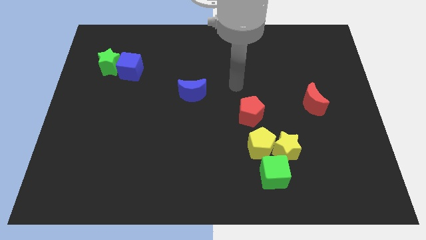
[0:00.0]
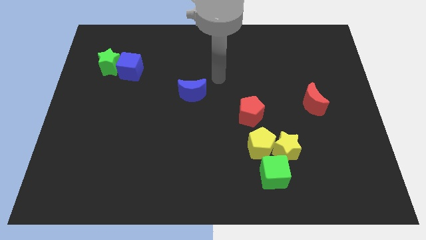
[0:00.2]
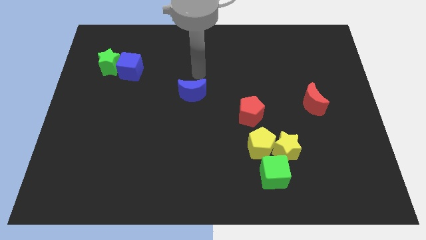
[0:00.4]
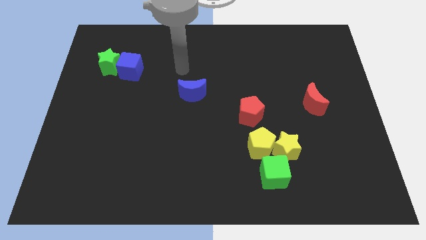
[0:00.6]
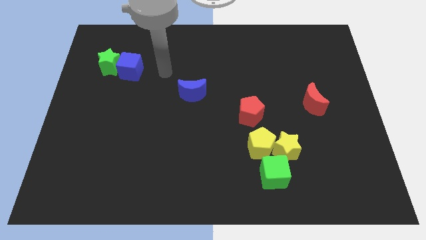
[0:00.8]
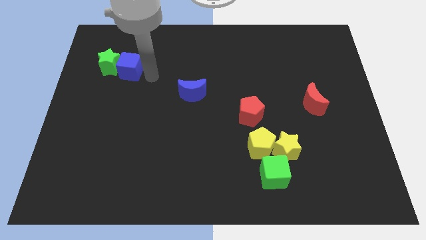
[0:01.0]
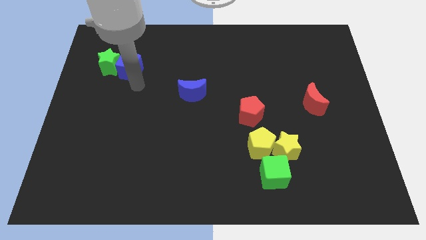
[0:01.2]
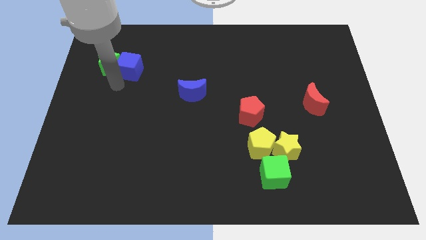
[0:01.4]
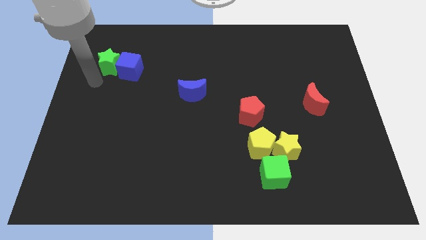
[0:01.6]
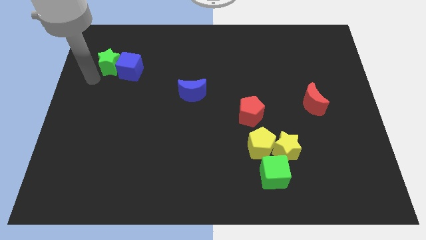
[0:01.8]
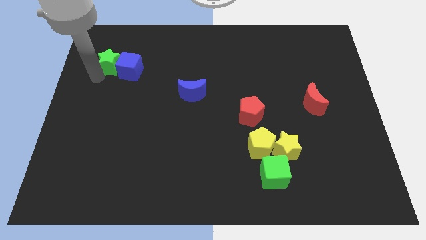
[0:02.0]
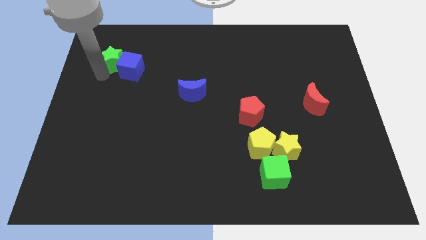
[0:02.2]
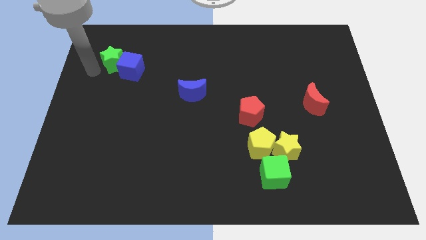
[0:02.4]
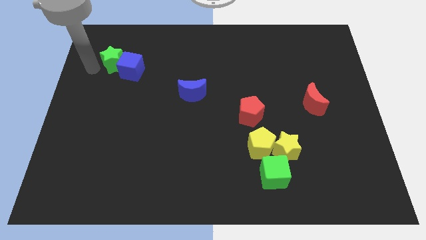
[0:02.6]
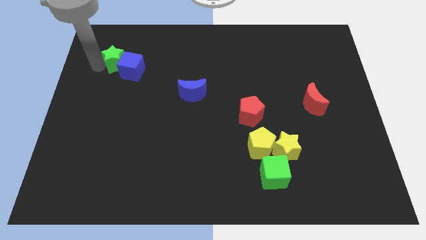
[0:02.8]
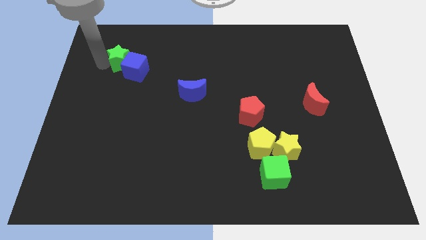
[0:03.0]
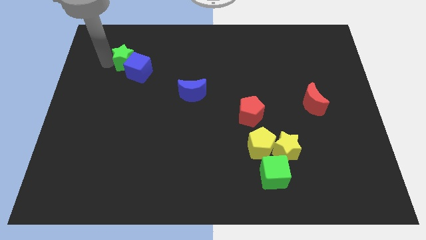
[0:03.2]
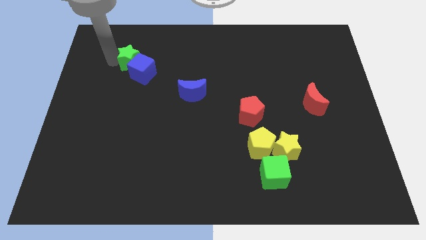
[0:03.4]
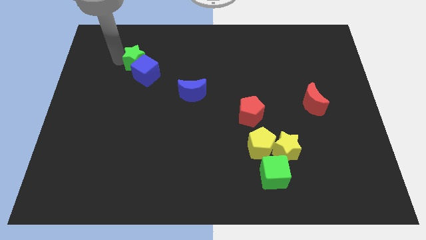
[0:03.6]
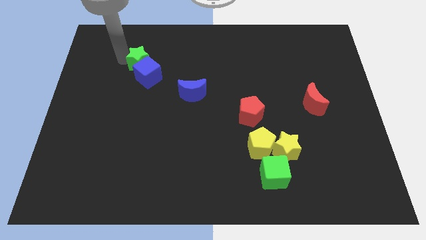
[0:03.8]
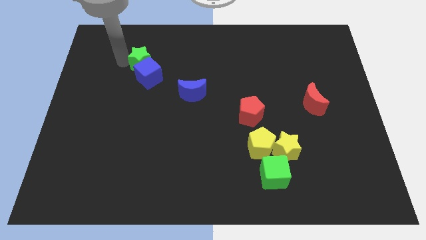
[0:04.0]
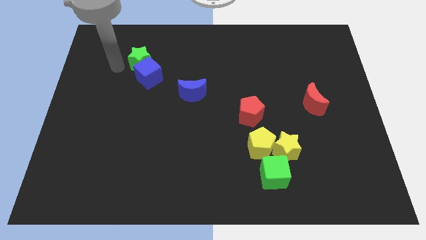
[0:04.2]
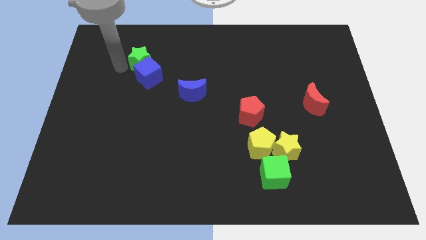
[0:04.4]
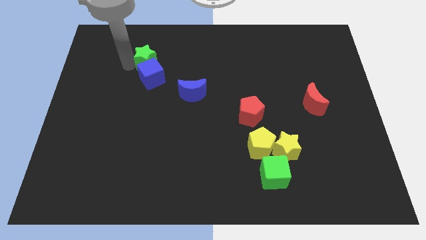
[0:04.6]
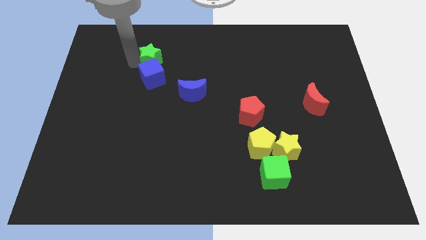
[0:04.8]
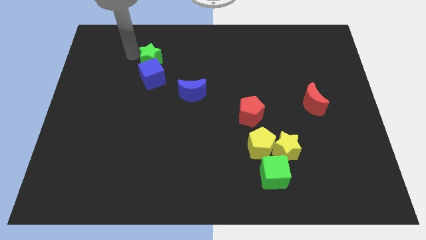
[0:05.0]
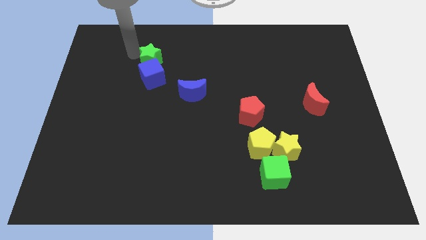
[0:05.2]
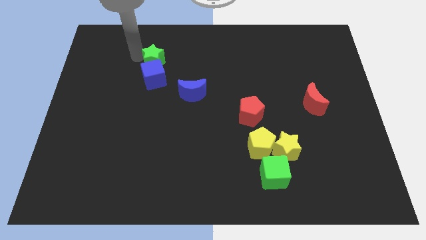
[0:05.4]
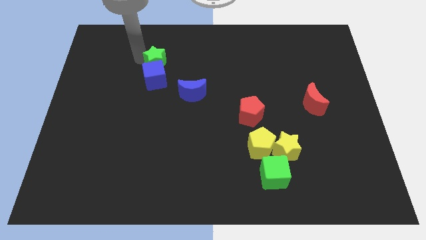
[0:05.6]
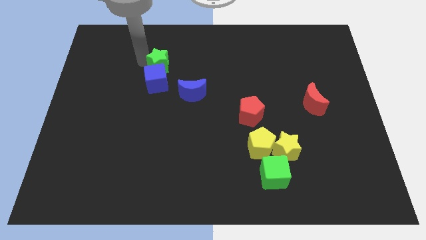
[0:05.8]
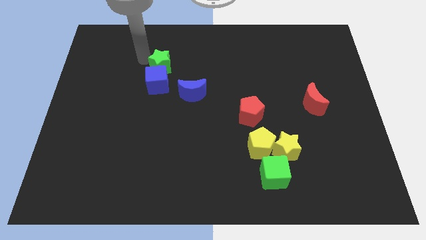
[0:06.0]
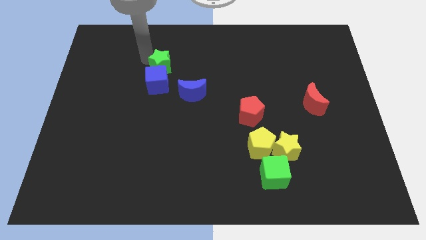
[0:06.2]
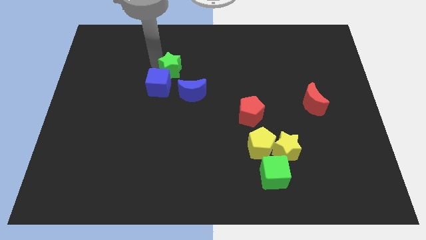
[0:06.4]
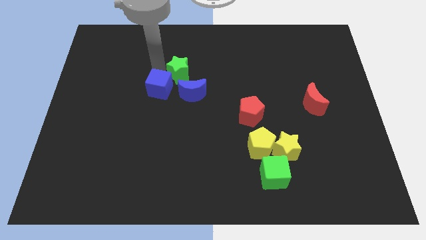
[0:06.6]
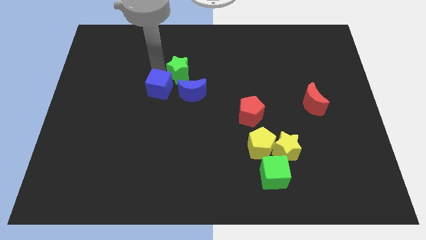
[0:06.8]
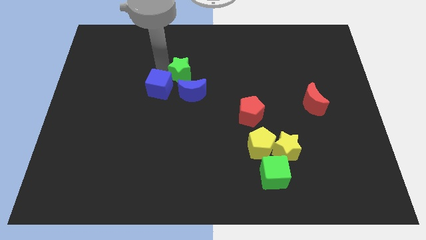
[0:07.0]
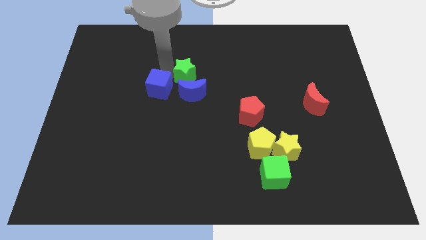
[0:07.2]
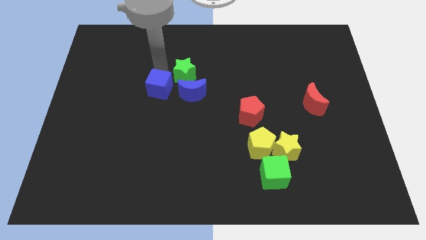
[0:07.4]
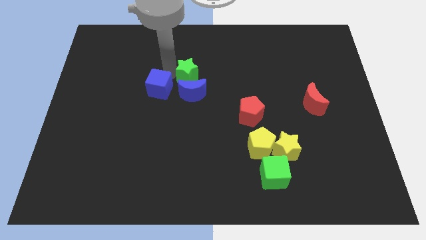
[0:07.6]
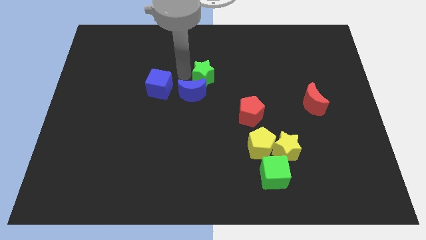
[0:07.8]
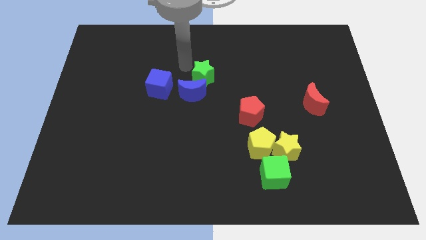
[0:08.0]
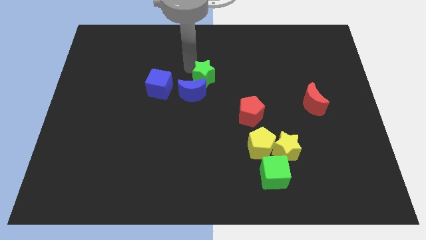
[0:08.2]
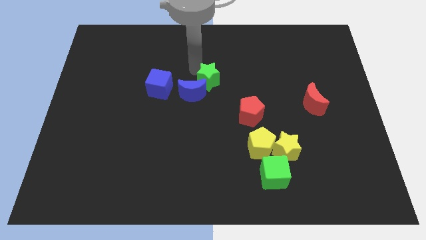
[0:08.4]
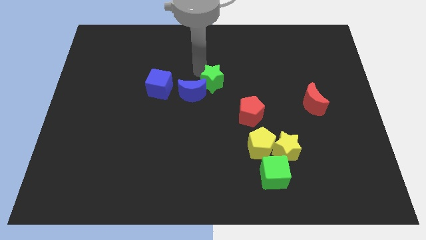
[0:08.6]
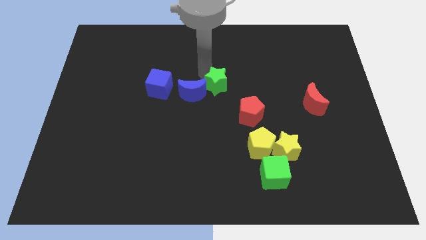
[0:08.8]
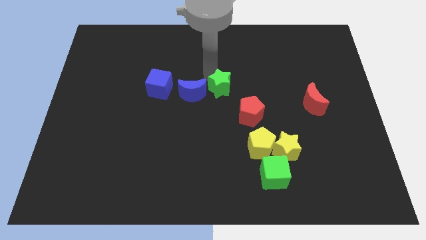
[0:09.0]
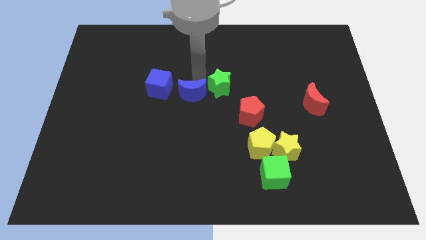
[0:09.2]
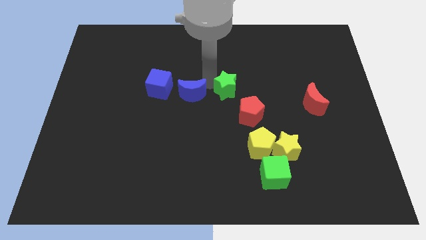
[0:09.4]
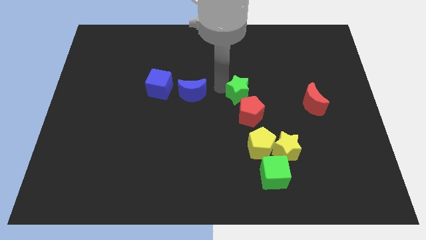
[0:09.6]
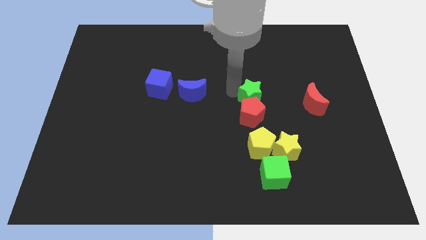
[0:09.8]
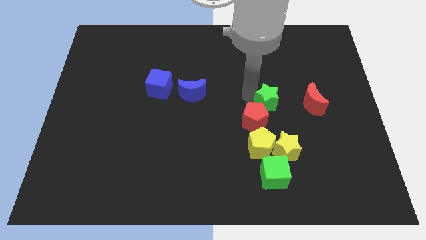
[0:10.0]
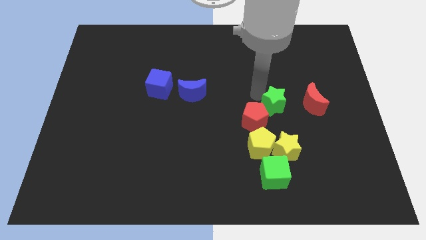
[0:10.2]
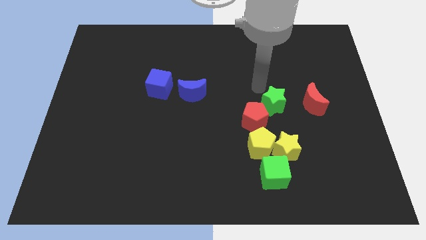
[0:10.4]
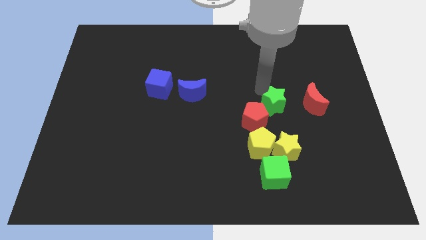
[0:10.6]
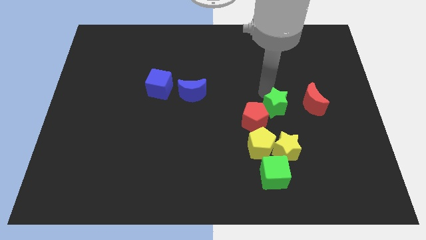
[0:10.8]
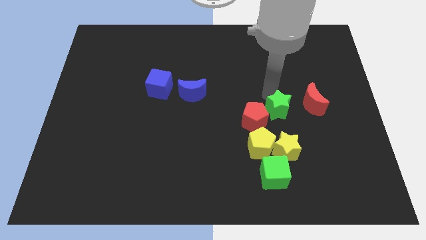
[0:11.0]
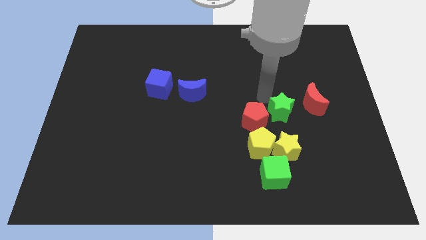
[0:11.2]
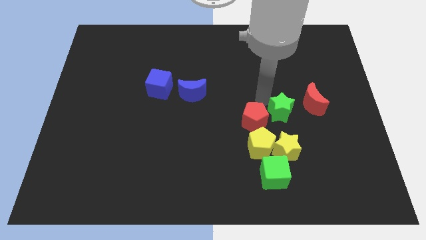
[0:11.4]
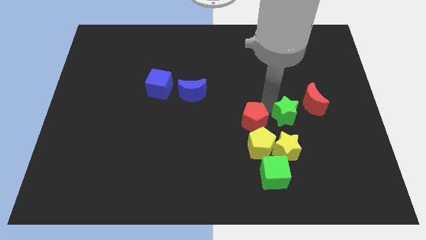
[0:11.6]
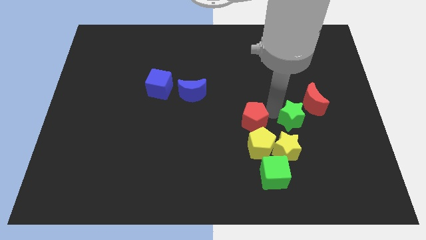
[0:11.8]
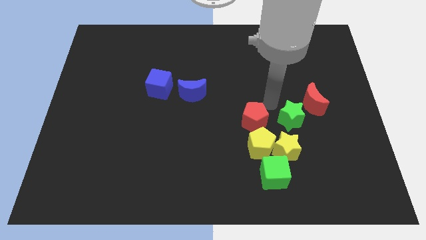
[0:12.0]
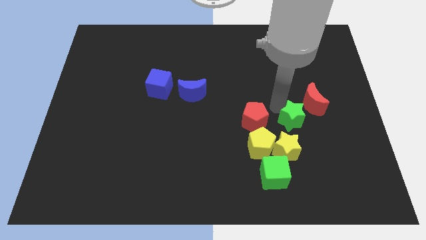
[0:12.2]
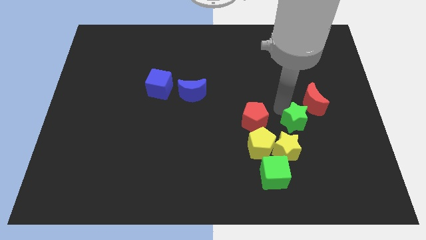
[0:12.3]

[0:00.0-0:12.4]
push the green star to the bottom of the red moon

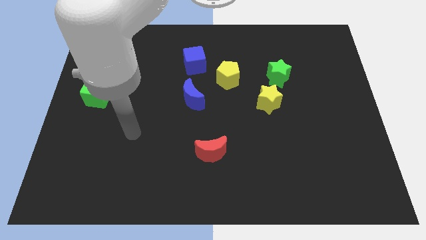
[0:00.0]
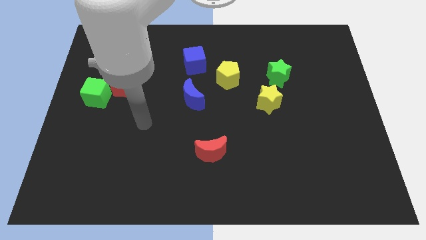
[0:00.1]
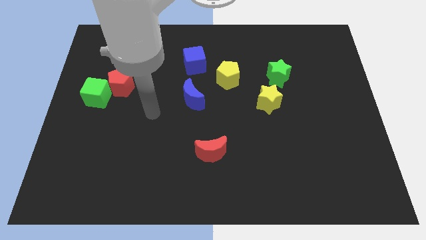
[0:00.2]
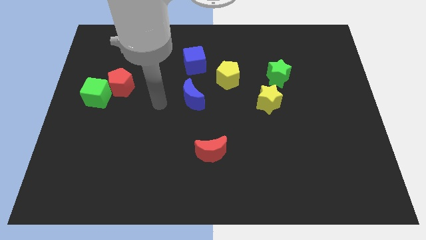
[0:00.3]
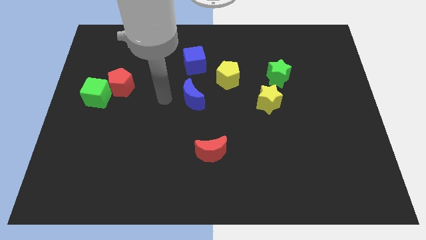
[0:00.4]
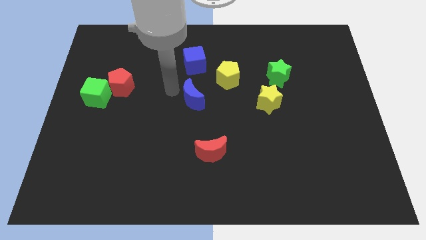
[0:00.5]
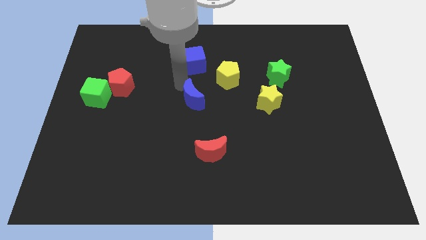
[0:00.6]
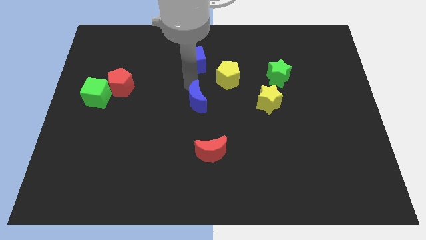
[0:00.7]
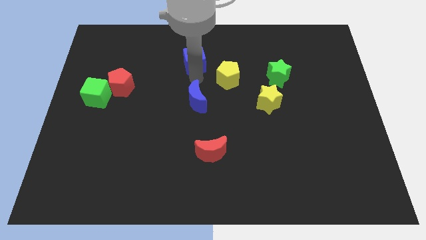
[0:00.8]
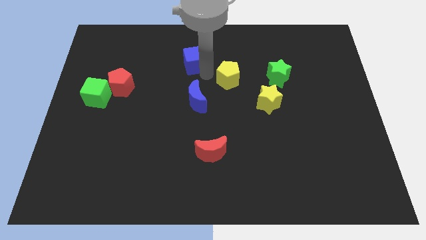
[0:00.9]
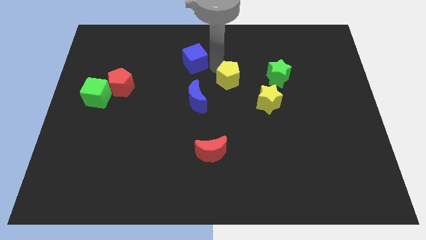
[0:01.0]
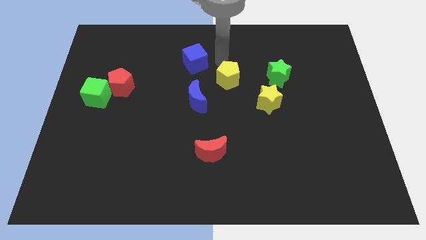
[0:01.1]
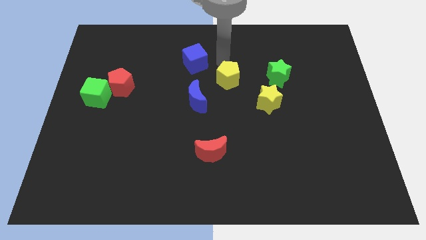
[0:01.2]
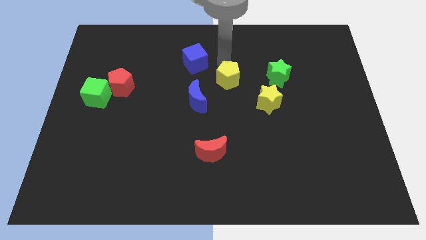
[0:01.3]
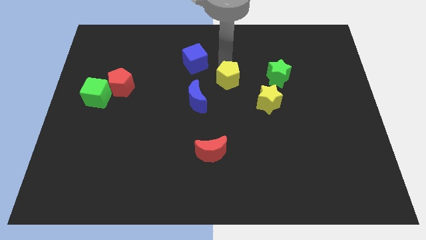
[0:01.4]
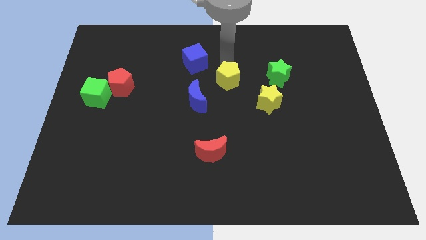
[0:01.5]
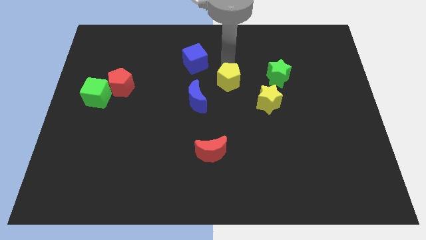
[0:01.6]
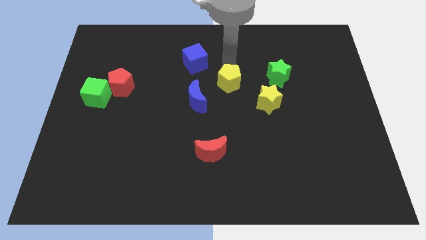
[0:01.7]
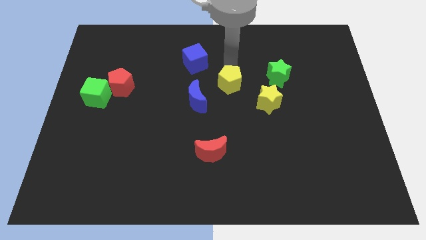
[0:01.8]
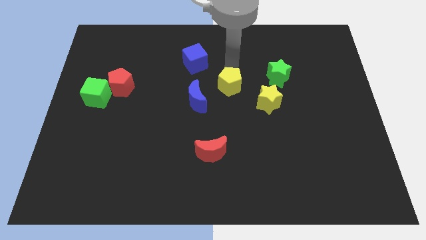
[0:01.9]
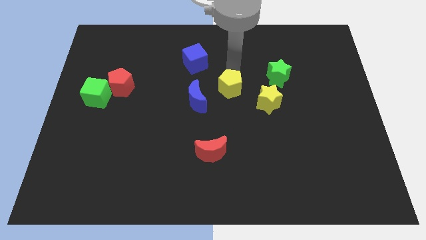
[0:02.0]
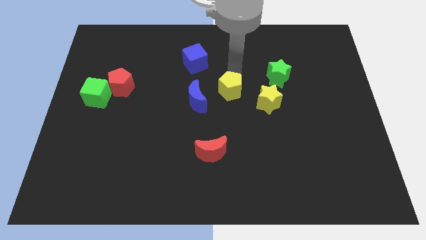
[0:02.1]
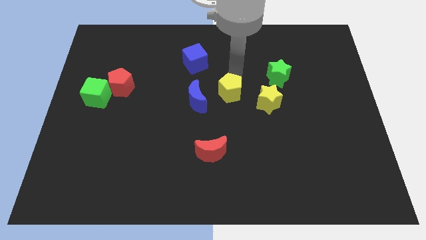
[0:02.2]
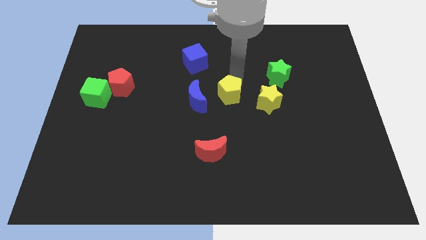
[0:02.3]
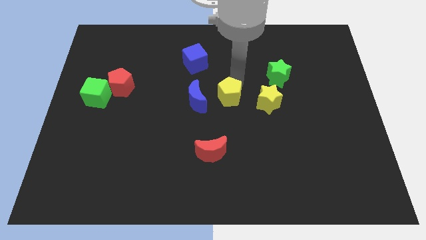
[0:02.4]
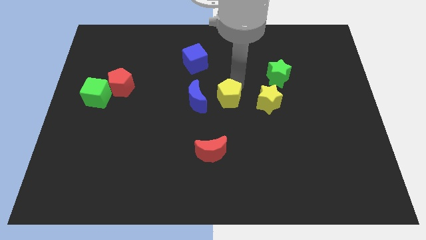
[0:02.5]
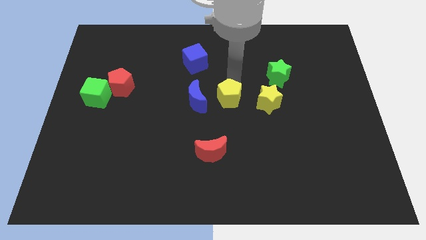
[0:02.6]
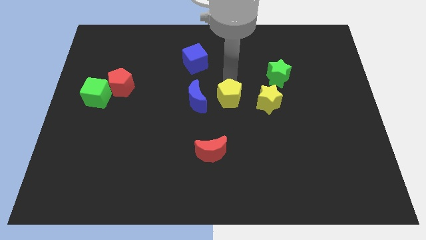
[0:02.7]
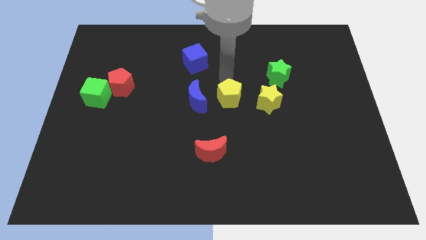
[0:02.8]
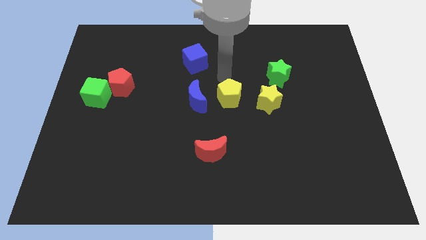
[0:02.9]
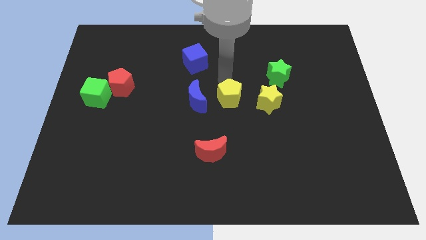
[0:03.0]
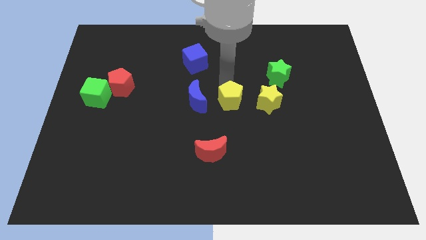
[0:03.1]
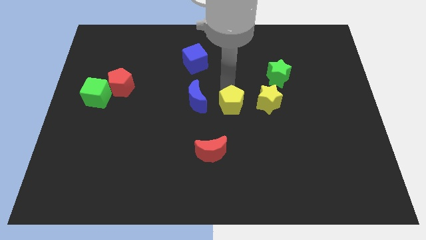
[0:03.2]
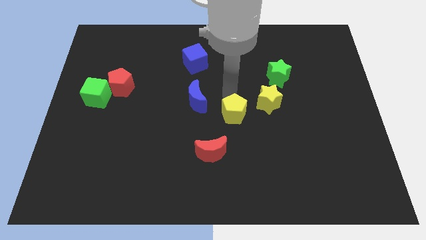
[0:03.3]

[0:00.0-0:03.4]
put the yellow pentagon to the top right of the red moon
